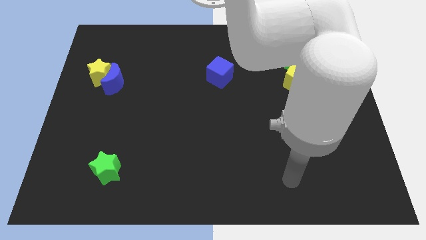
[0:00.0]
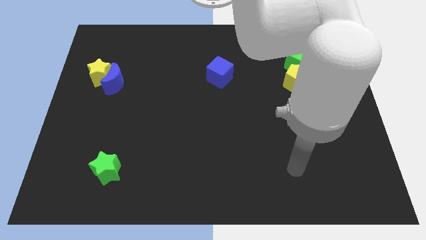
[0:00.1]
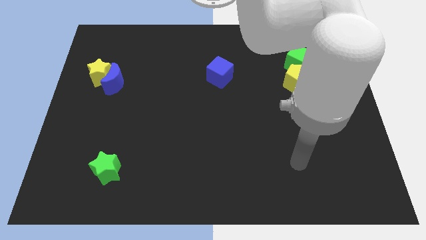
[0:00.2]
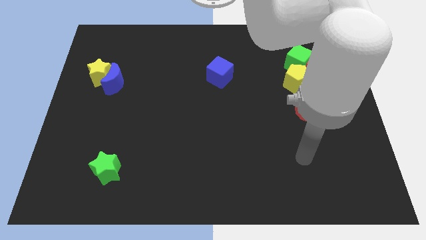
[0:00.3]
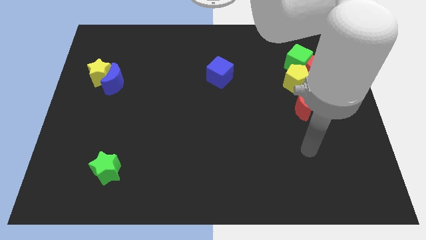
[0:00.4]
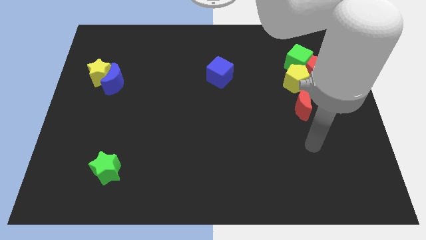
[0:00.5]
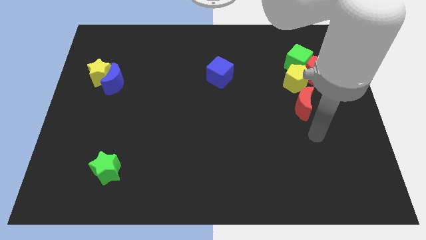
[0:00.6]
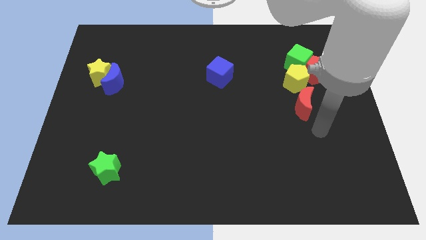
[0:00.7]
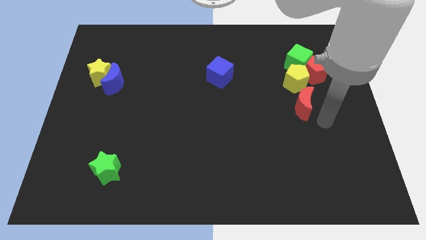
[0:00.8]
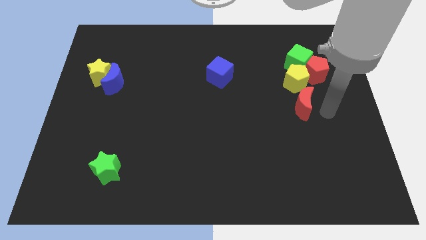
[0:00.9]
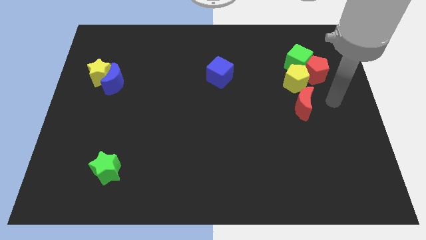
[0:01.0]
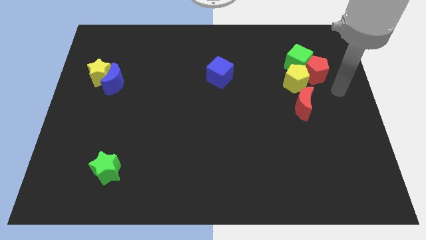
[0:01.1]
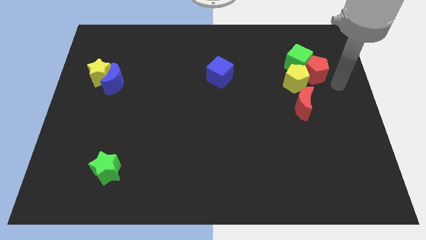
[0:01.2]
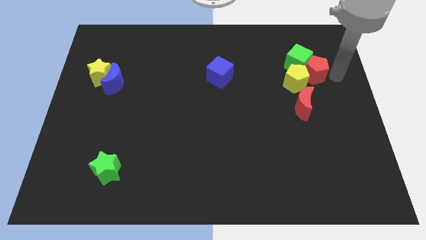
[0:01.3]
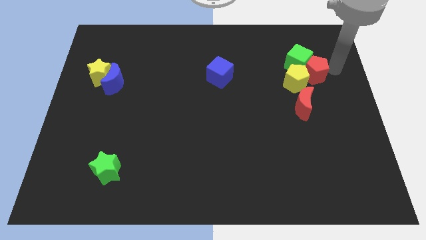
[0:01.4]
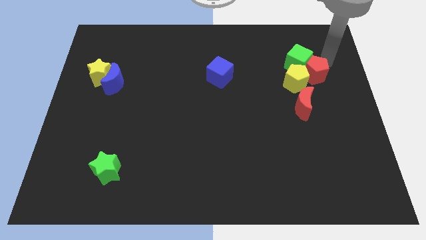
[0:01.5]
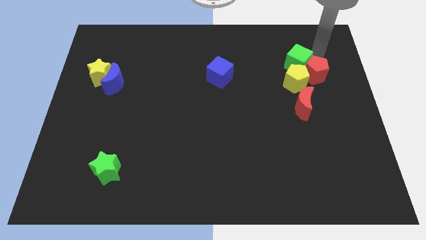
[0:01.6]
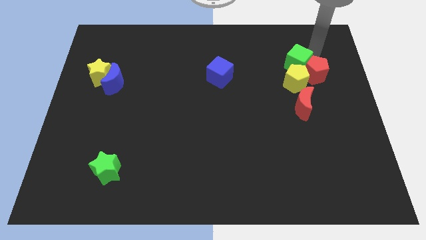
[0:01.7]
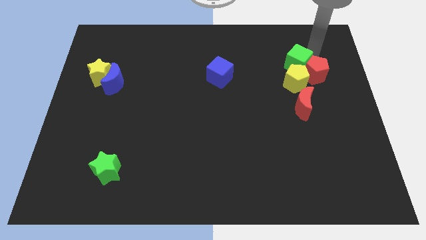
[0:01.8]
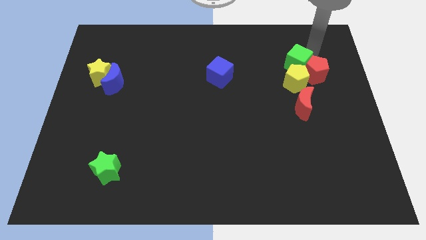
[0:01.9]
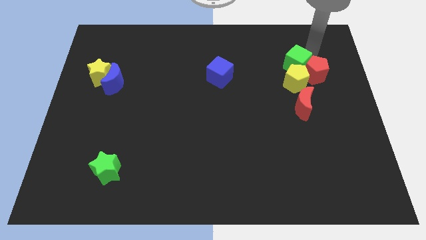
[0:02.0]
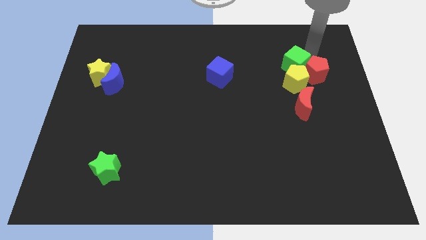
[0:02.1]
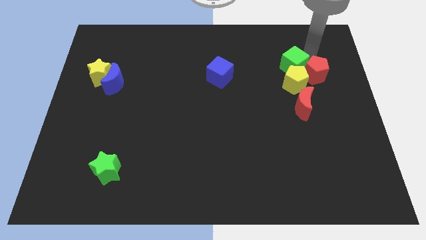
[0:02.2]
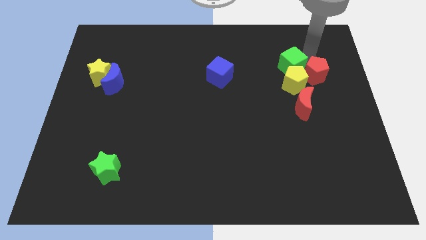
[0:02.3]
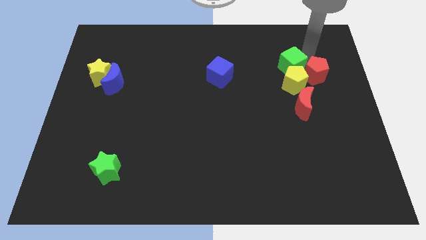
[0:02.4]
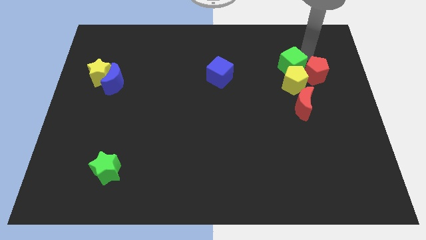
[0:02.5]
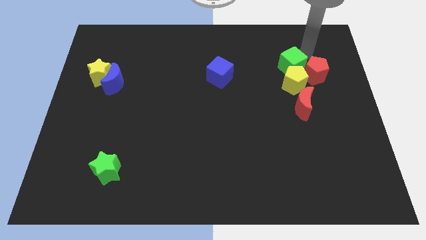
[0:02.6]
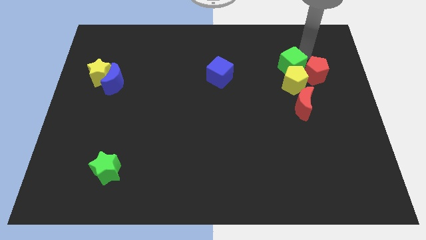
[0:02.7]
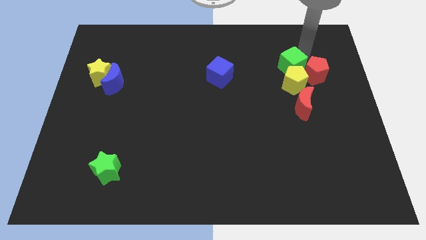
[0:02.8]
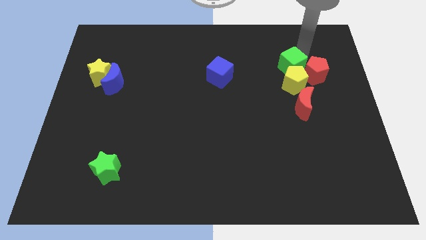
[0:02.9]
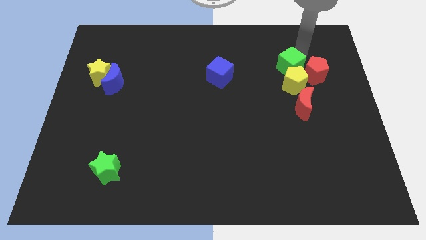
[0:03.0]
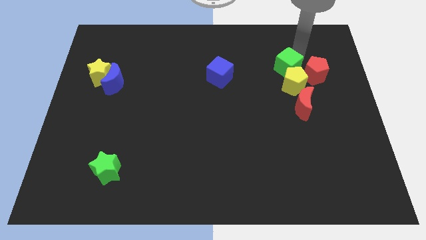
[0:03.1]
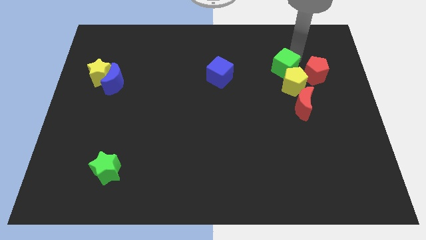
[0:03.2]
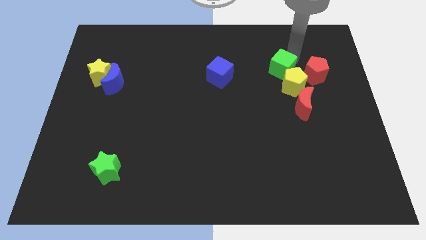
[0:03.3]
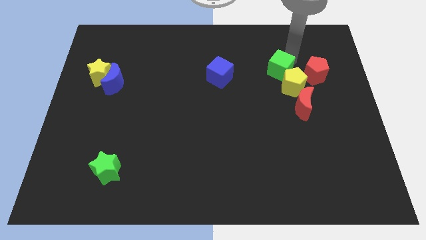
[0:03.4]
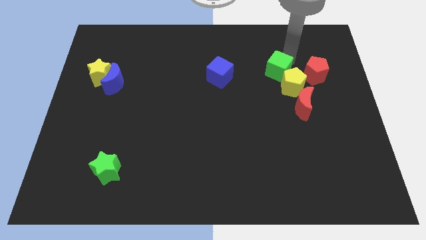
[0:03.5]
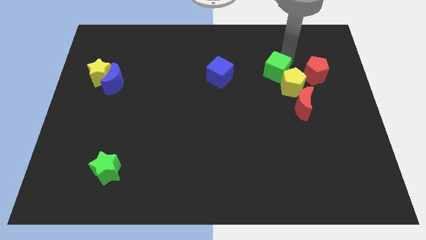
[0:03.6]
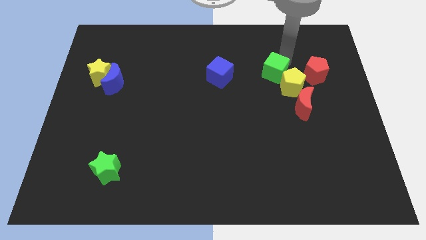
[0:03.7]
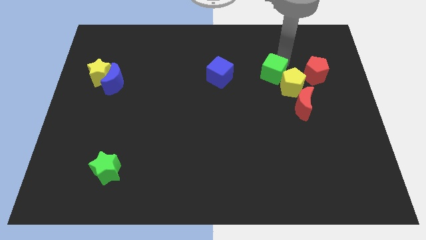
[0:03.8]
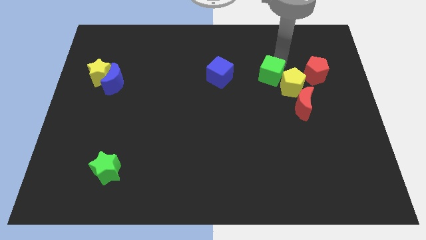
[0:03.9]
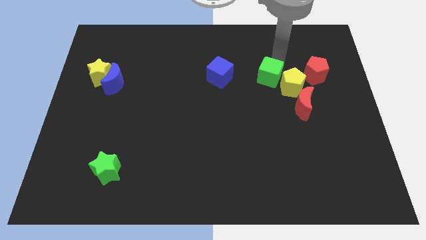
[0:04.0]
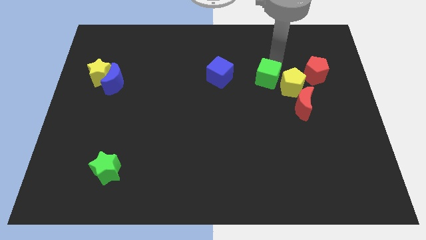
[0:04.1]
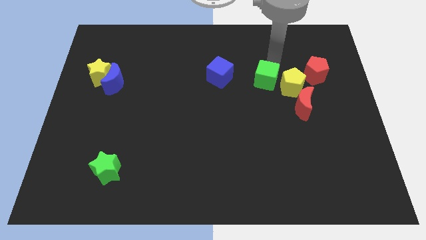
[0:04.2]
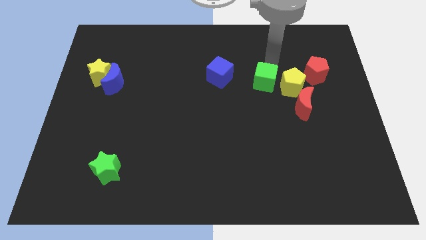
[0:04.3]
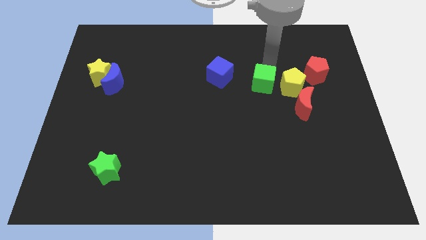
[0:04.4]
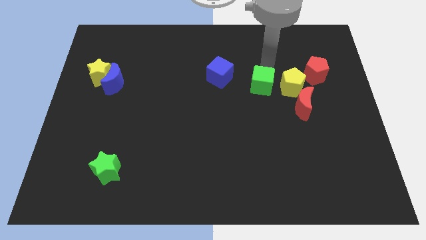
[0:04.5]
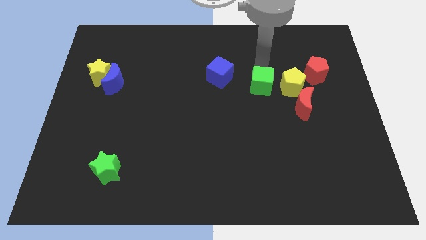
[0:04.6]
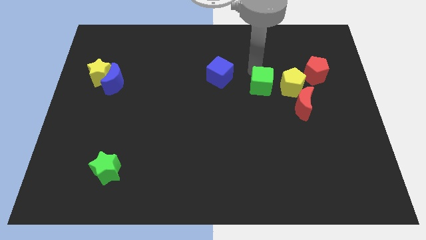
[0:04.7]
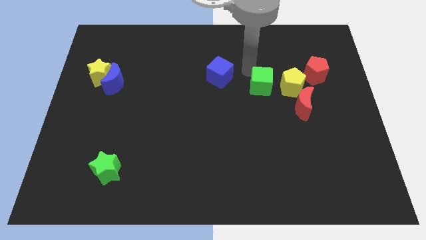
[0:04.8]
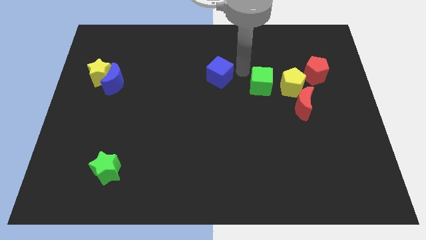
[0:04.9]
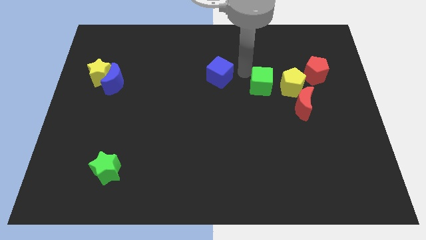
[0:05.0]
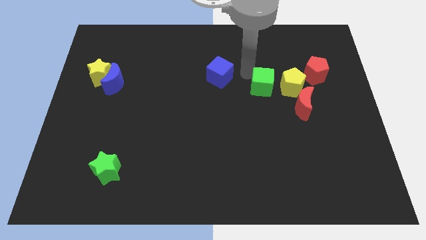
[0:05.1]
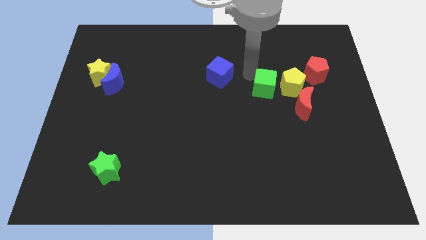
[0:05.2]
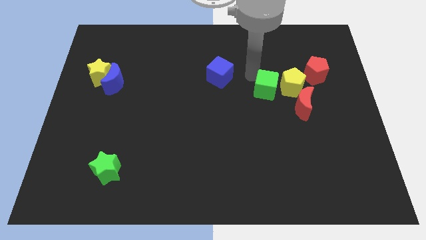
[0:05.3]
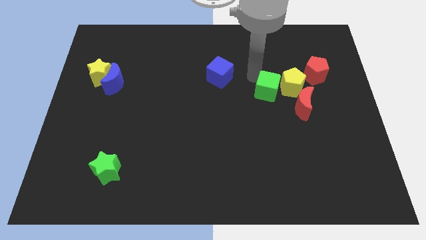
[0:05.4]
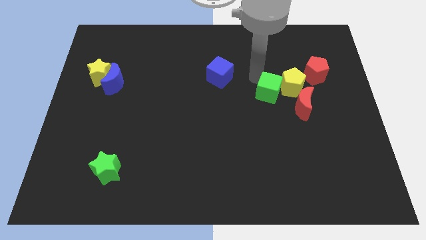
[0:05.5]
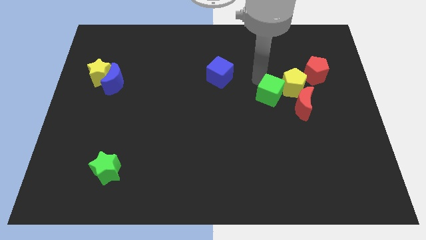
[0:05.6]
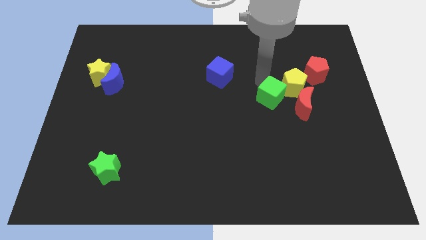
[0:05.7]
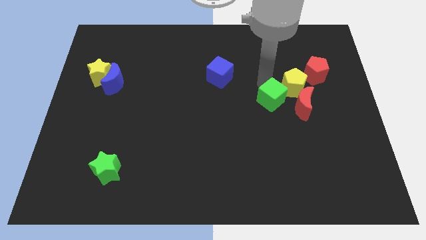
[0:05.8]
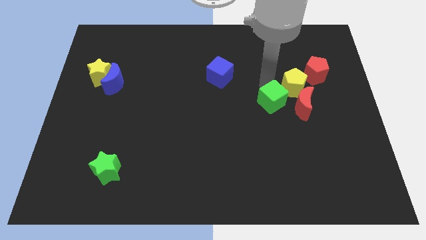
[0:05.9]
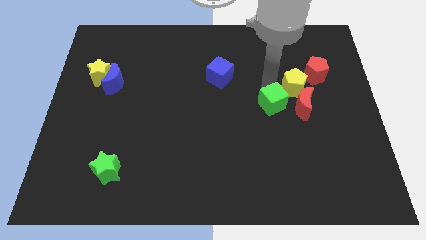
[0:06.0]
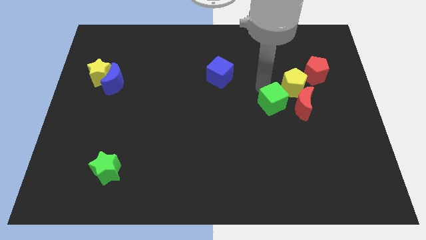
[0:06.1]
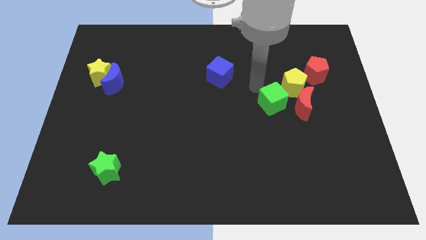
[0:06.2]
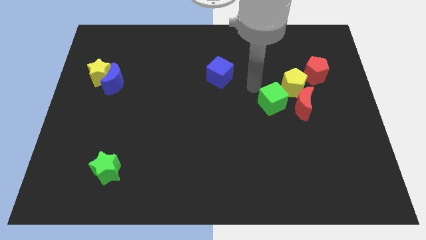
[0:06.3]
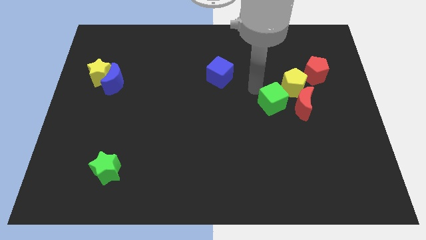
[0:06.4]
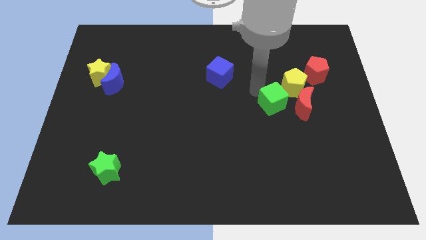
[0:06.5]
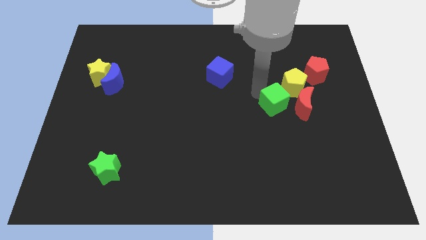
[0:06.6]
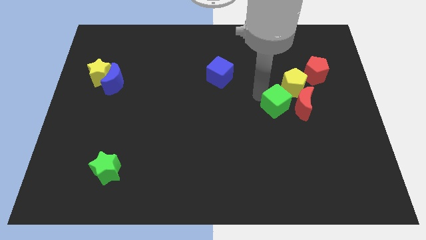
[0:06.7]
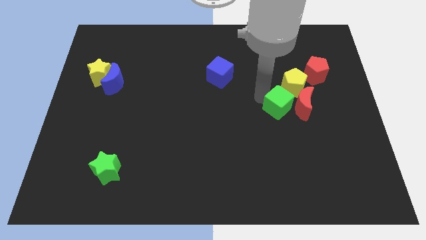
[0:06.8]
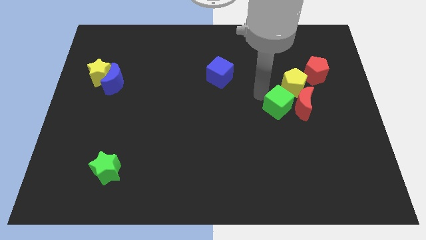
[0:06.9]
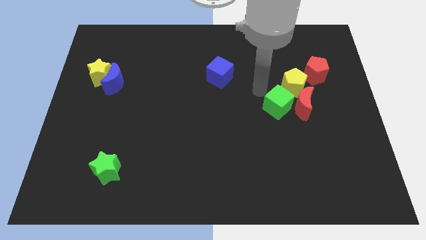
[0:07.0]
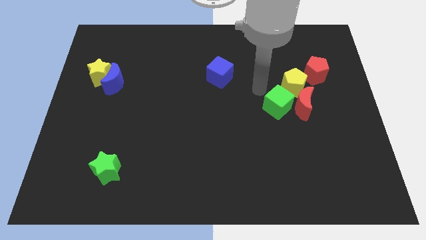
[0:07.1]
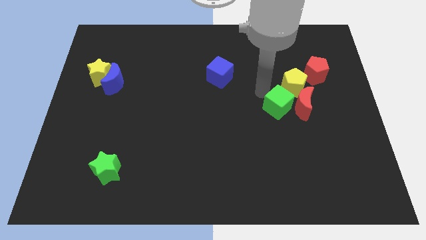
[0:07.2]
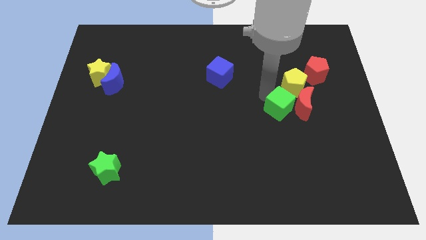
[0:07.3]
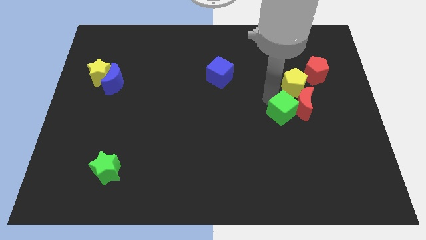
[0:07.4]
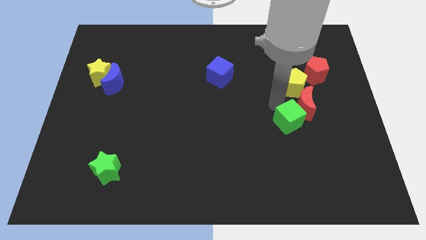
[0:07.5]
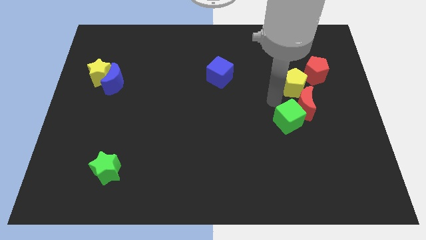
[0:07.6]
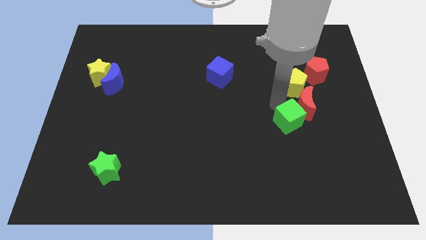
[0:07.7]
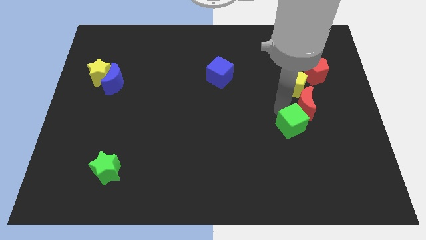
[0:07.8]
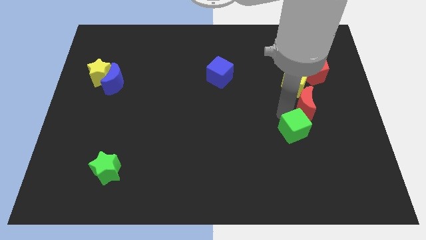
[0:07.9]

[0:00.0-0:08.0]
push the green cube downwards
